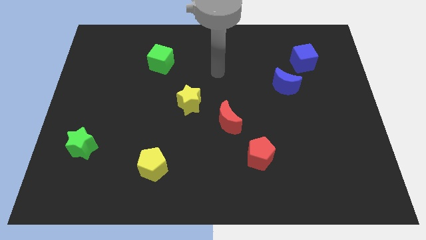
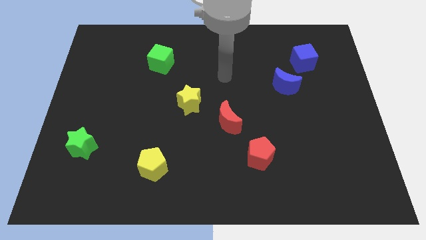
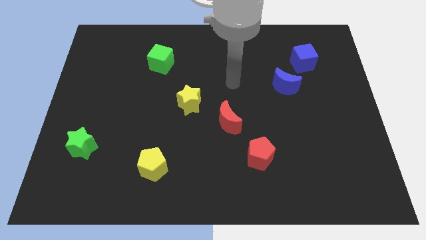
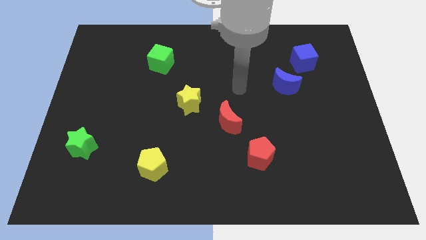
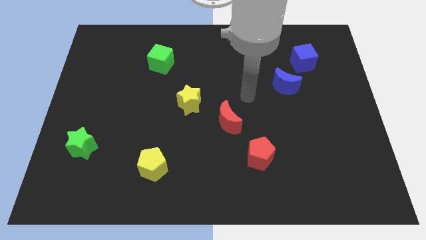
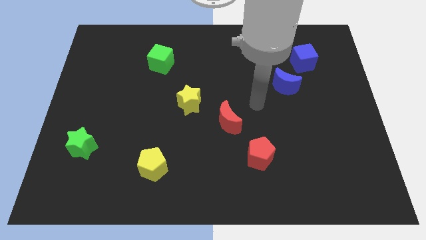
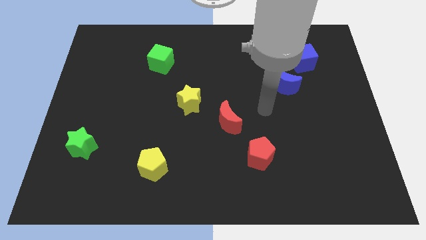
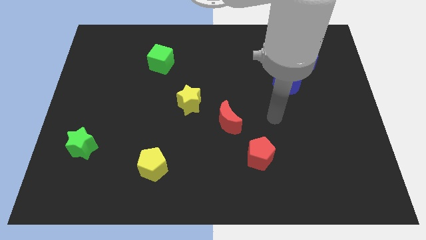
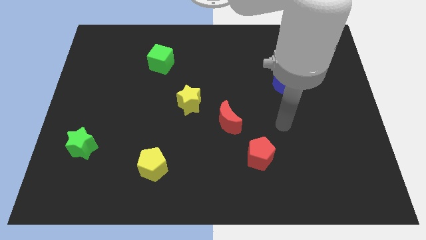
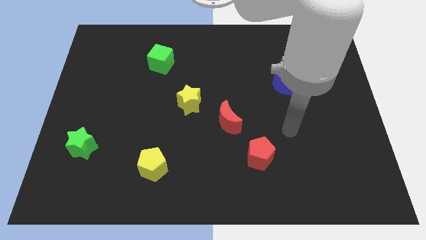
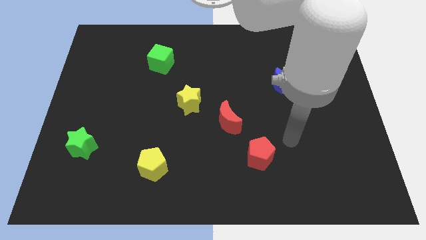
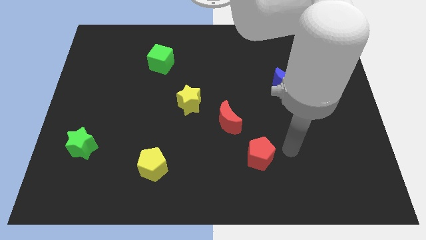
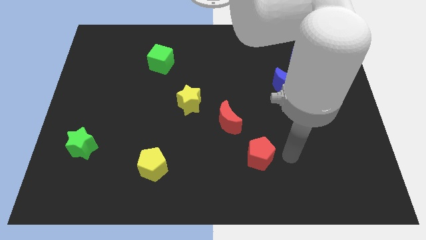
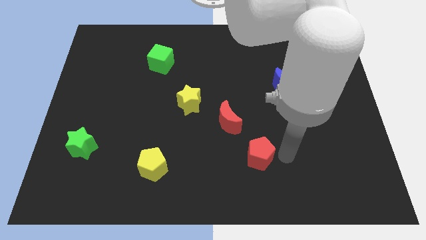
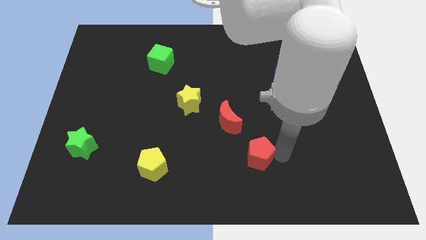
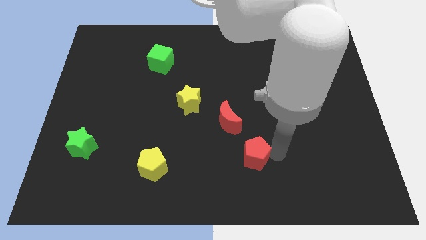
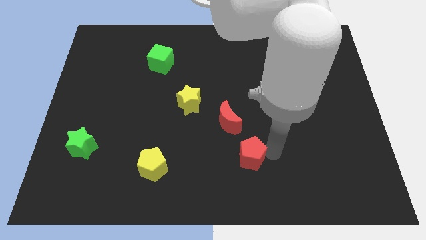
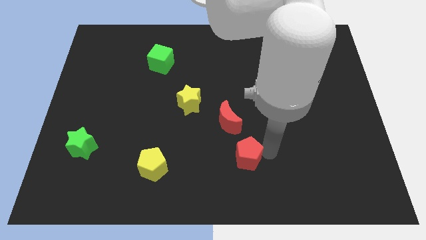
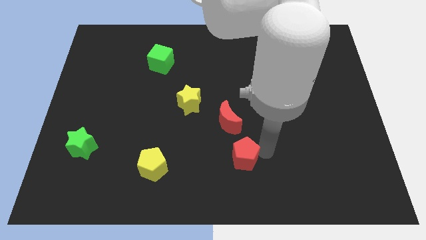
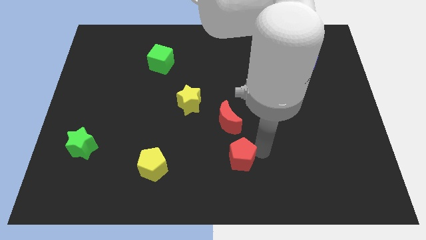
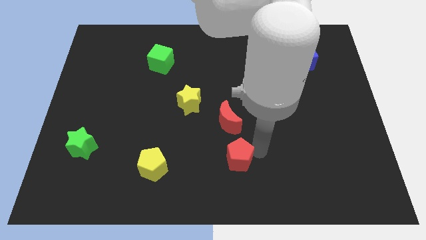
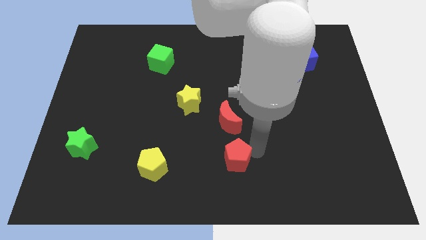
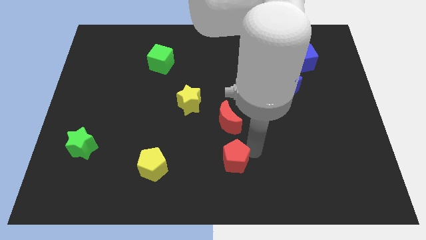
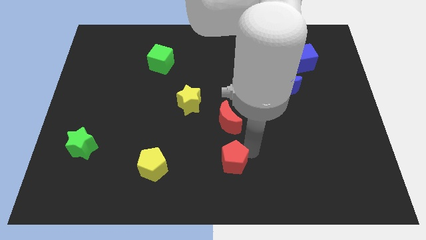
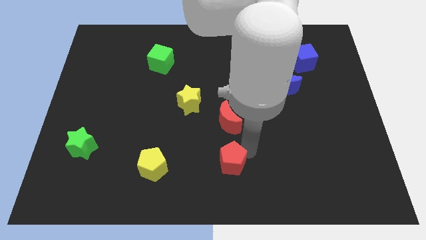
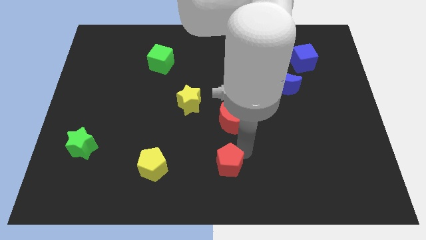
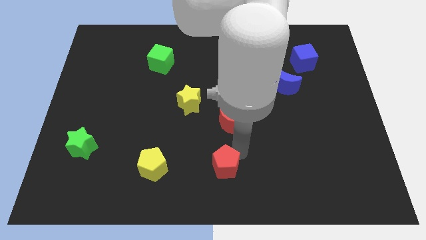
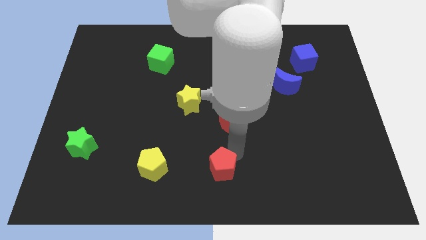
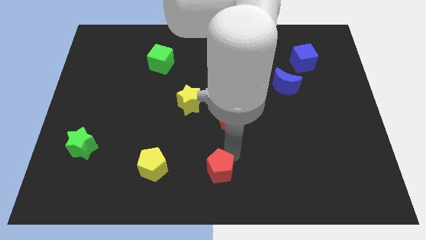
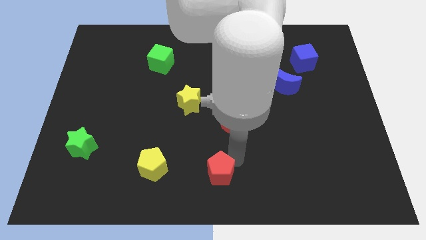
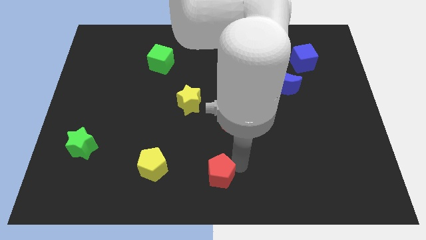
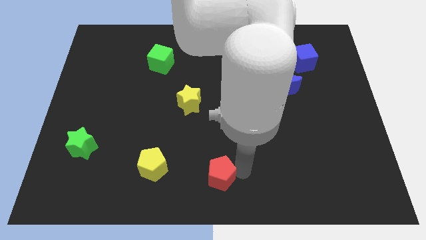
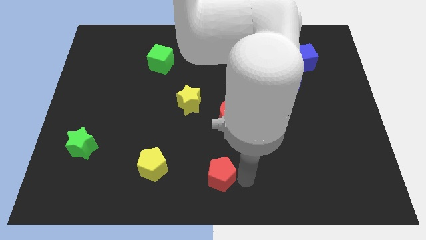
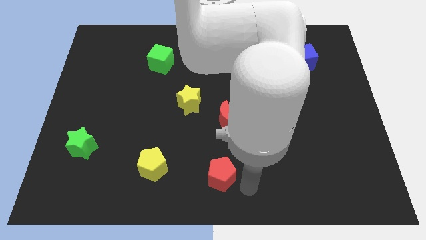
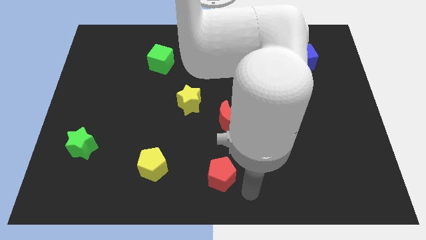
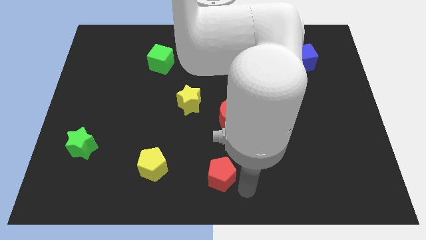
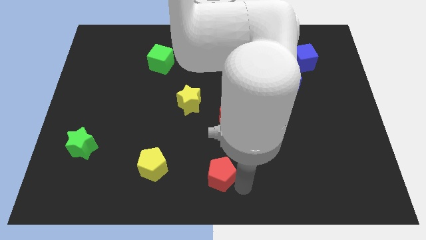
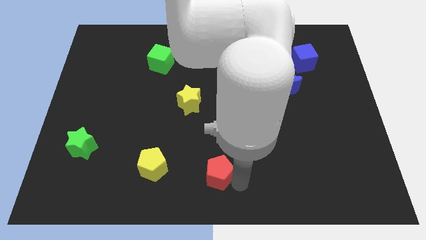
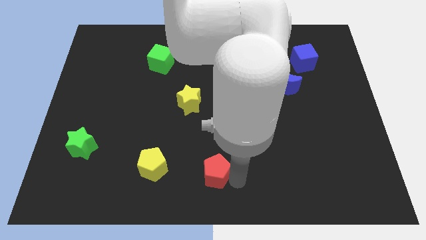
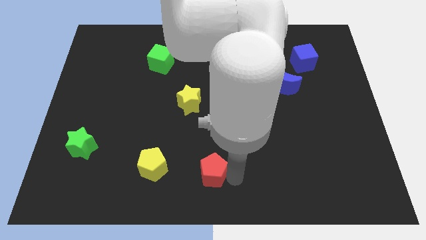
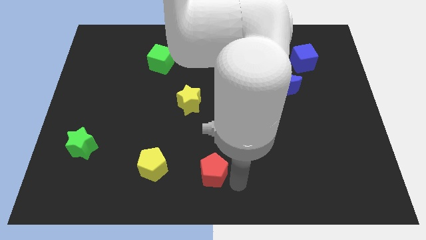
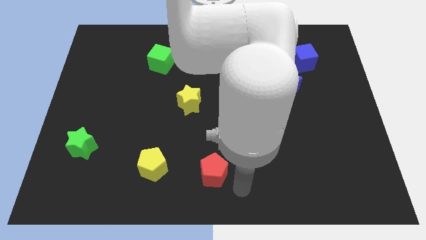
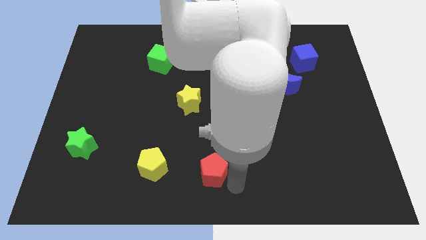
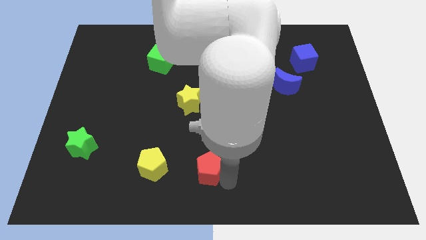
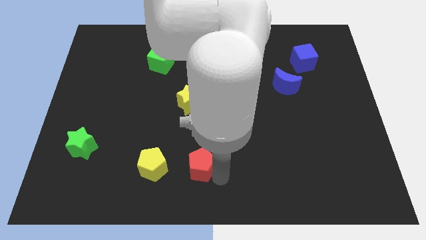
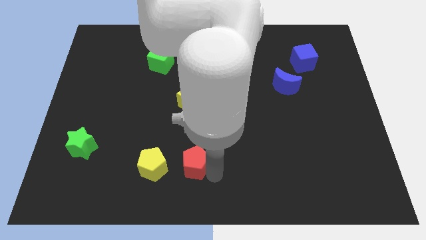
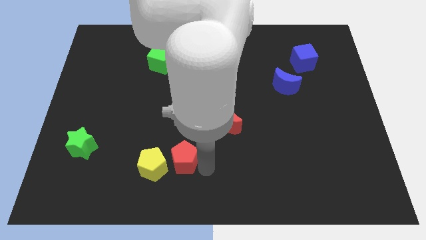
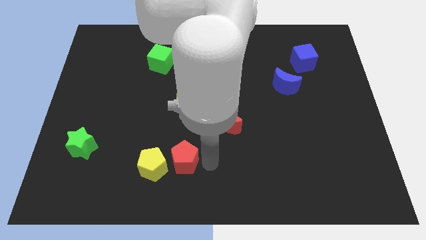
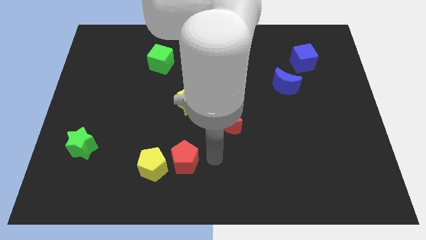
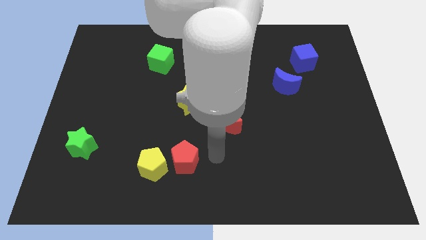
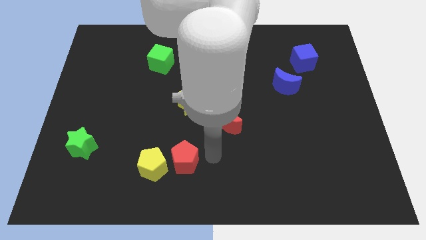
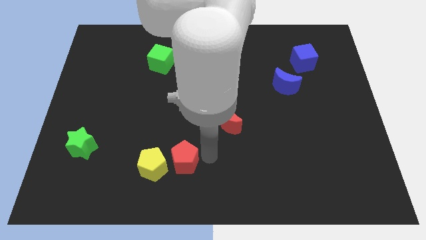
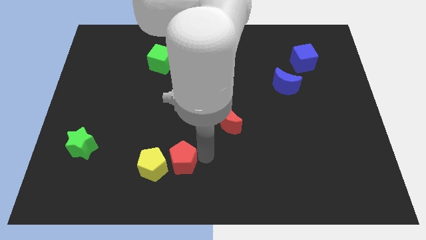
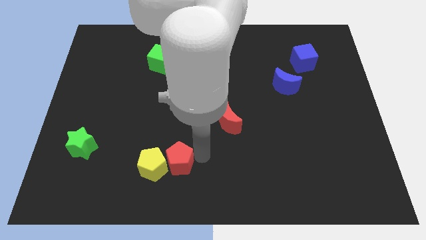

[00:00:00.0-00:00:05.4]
slide the red pentagon close to the yellow pentagon

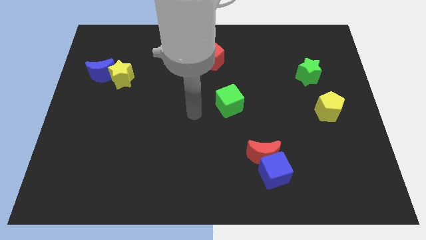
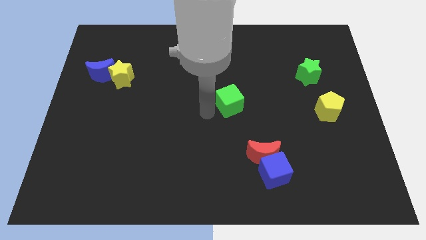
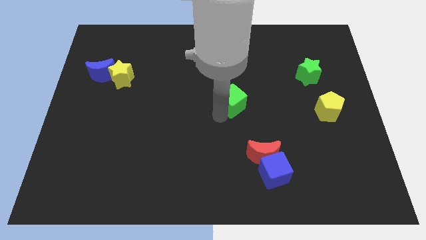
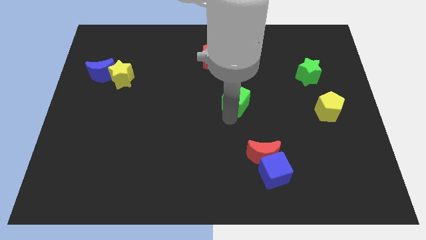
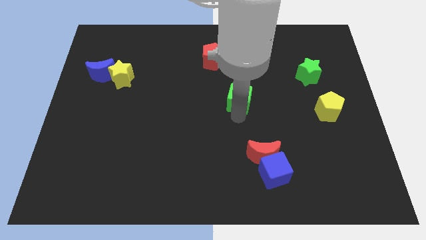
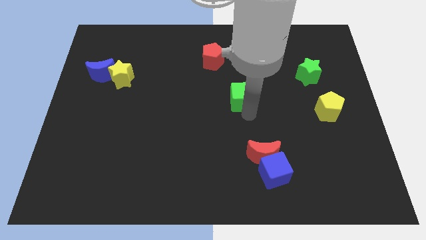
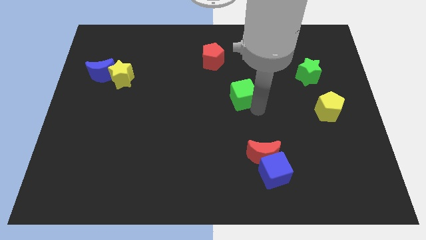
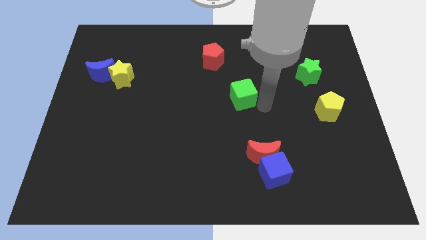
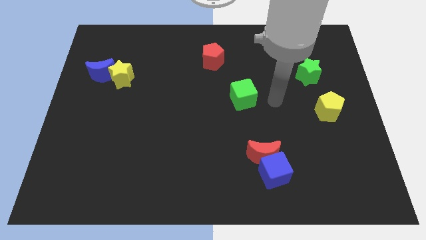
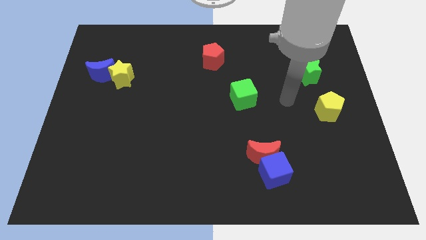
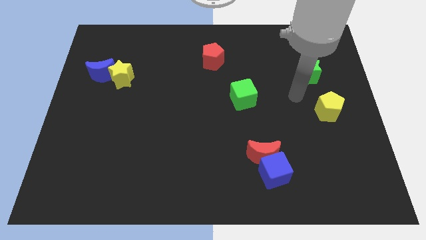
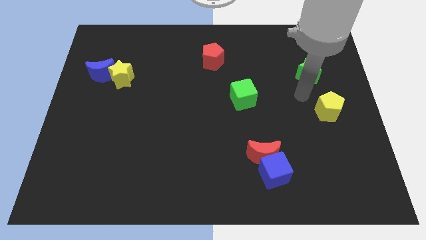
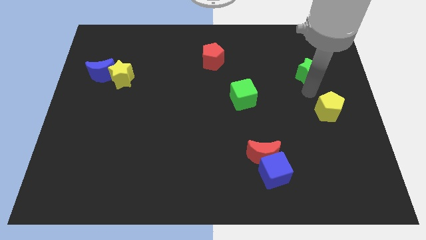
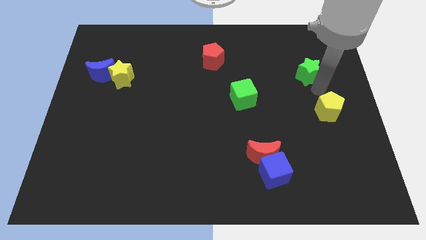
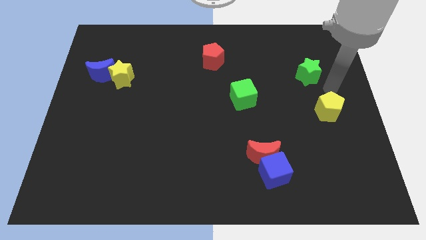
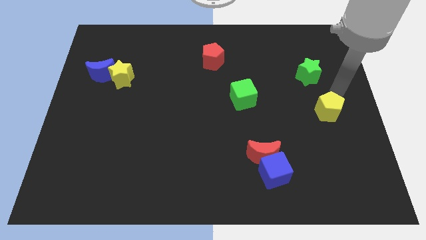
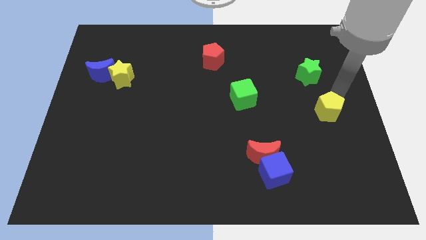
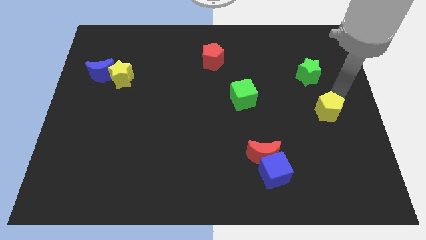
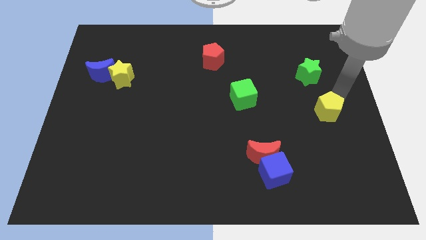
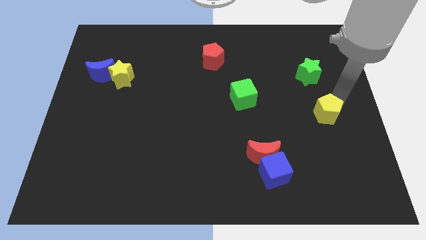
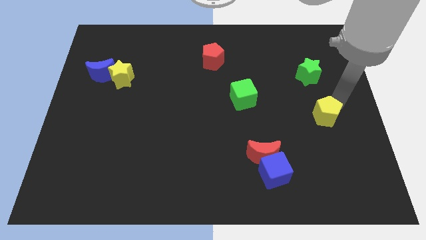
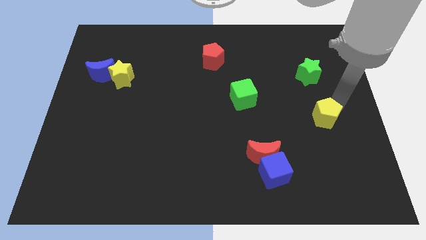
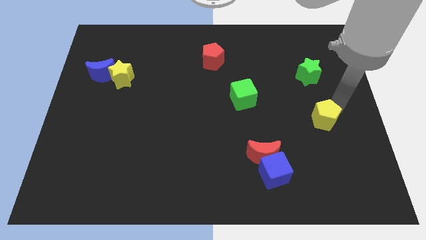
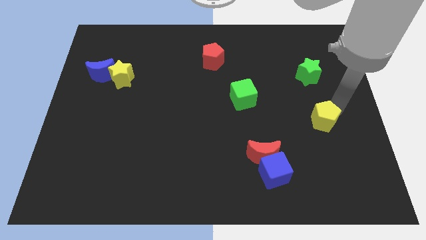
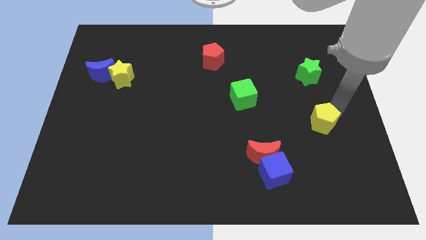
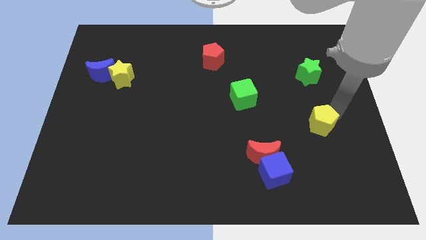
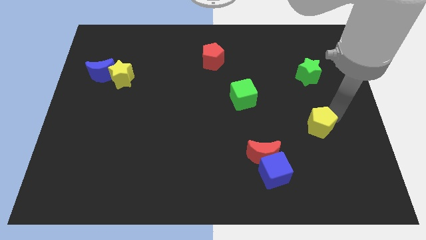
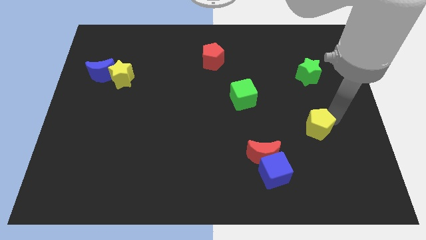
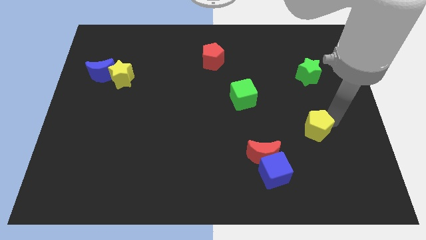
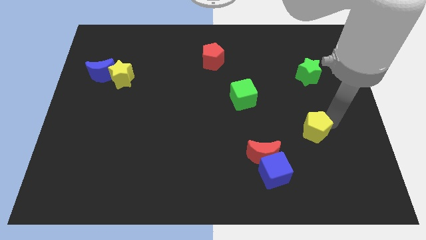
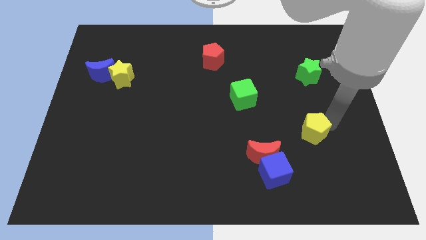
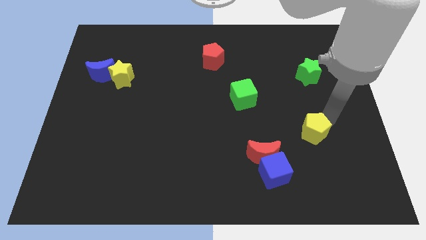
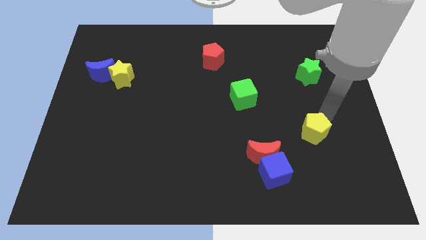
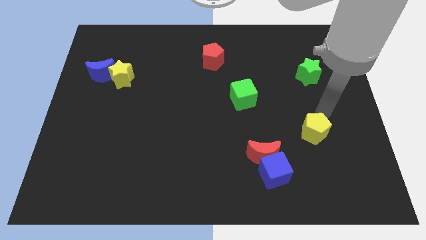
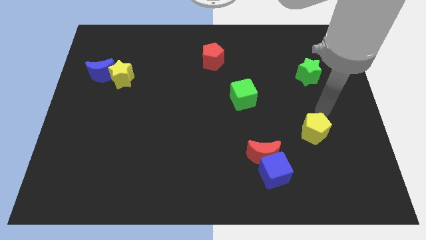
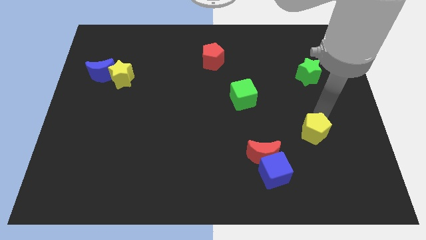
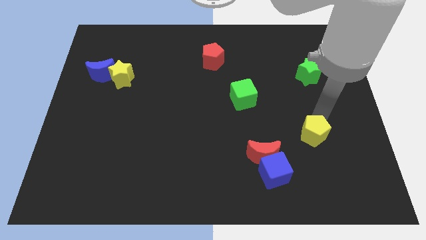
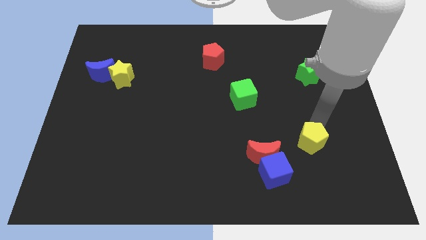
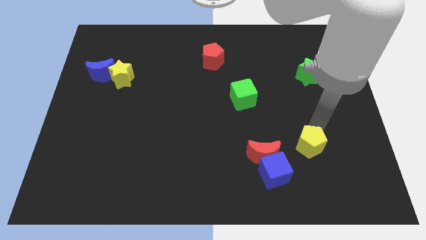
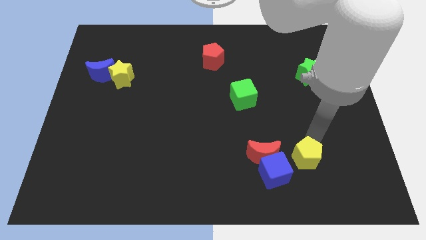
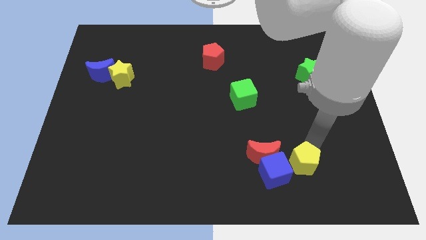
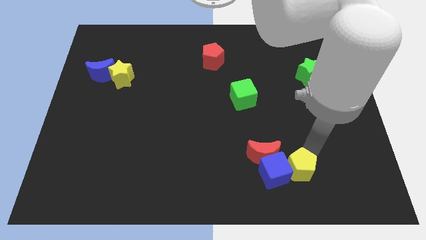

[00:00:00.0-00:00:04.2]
slide the yellow pentagon towards the blue cube
